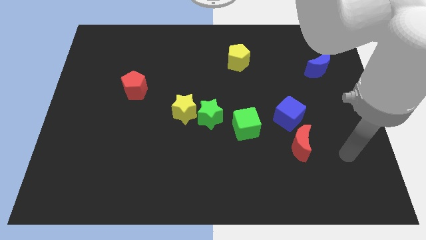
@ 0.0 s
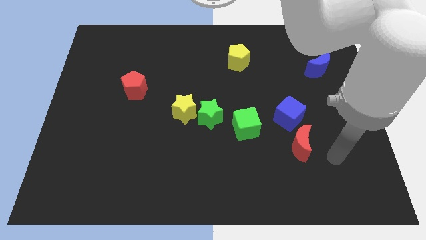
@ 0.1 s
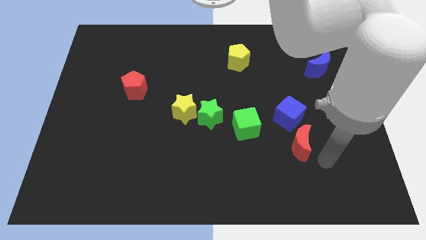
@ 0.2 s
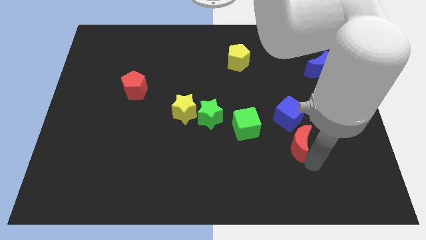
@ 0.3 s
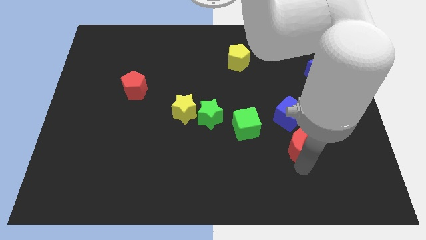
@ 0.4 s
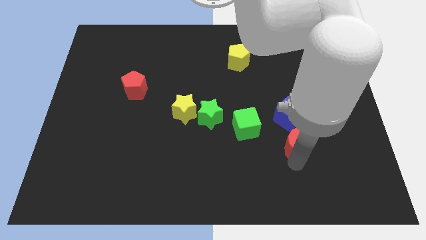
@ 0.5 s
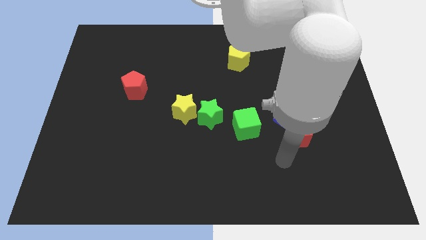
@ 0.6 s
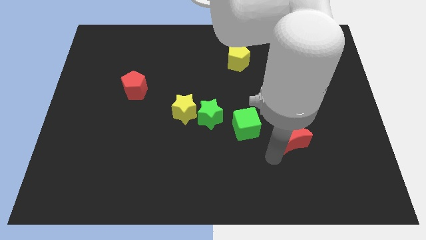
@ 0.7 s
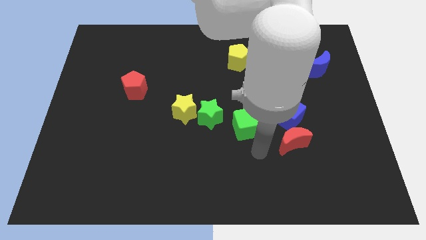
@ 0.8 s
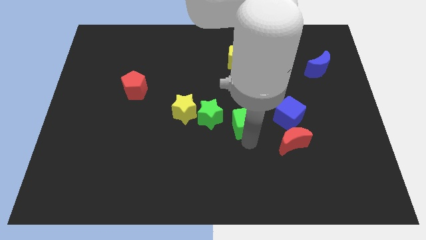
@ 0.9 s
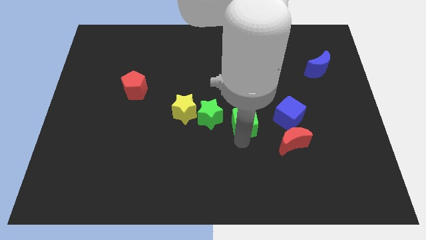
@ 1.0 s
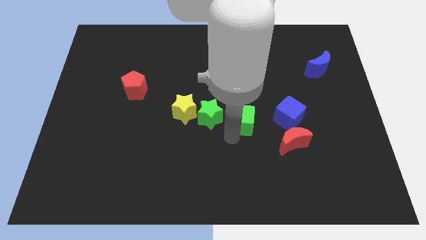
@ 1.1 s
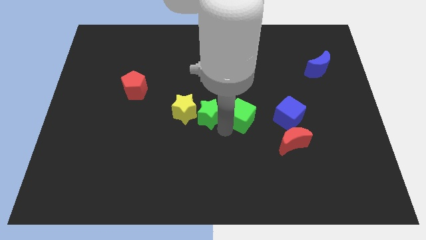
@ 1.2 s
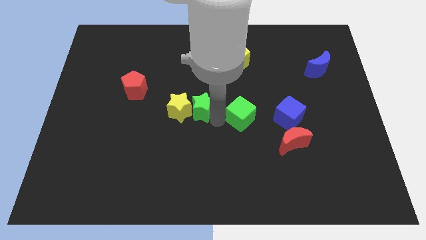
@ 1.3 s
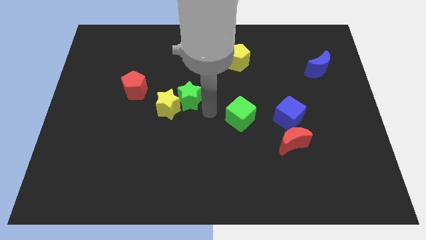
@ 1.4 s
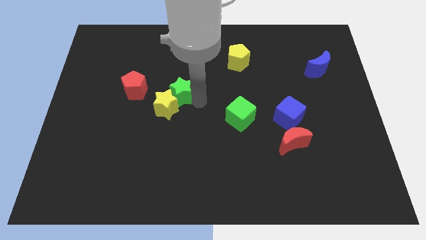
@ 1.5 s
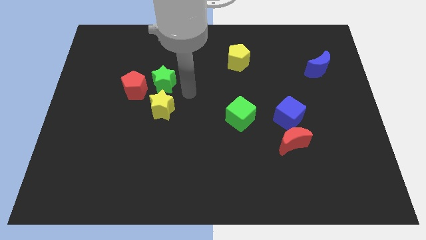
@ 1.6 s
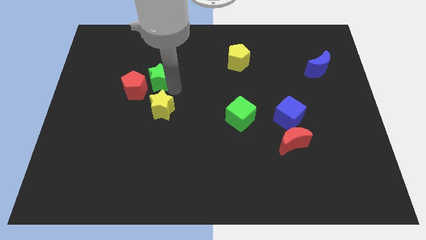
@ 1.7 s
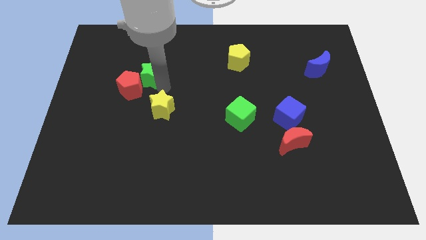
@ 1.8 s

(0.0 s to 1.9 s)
separate the yellow star from the green star

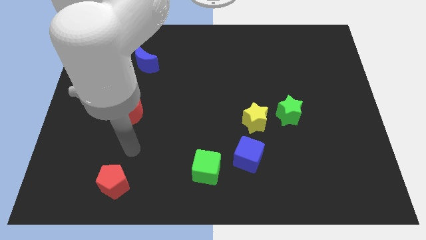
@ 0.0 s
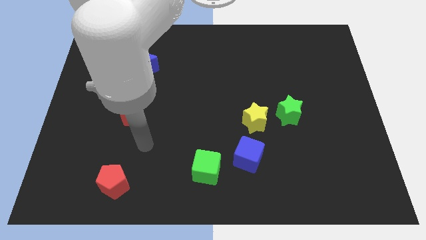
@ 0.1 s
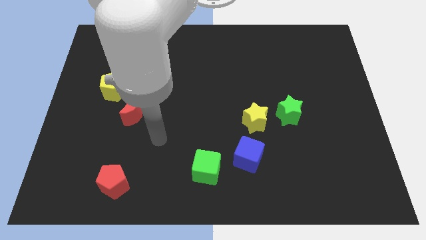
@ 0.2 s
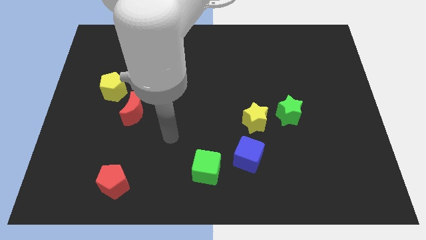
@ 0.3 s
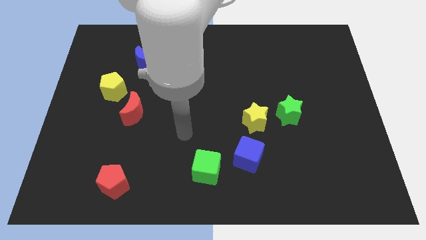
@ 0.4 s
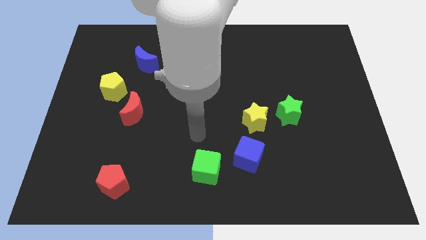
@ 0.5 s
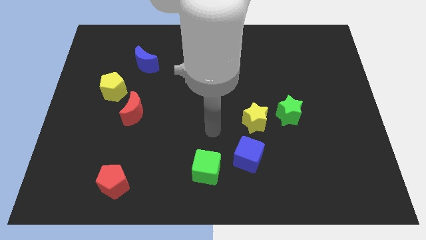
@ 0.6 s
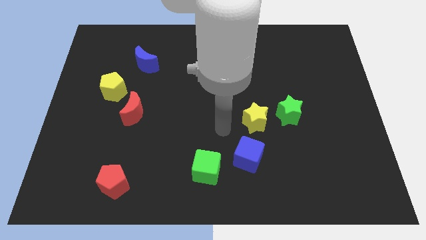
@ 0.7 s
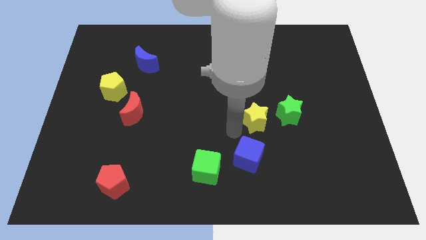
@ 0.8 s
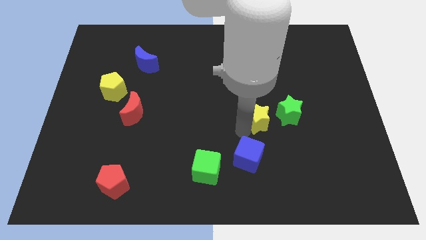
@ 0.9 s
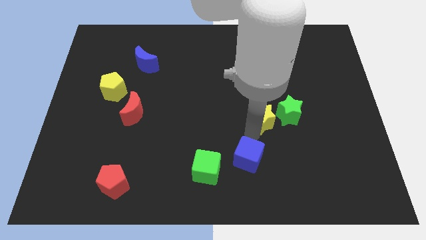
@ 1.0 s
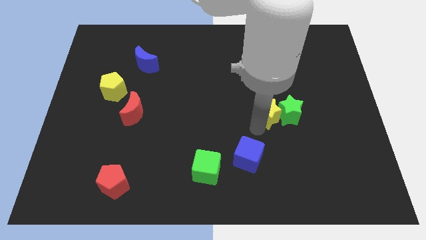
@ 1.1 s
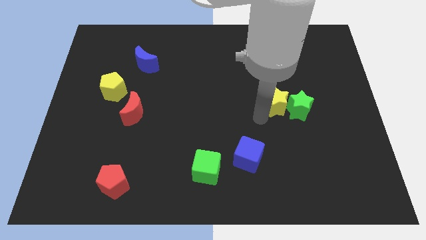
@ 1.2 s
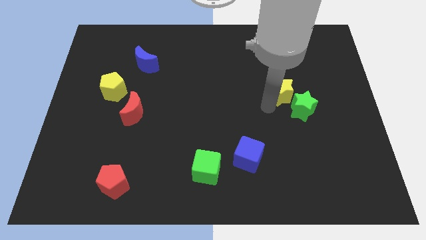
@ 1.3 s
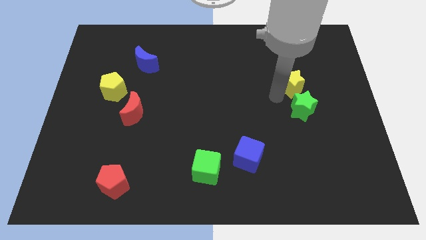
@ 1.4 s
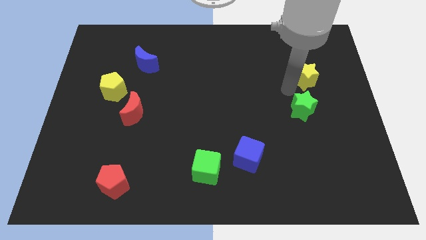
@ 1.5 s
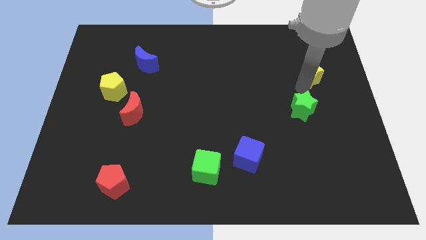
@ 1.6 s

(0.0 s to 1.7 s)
separate the green star from the yellow star

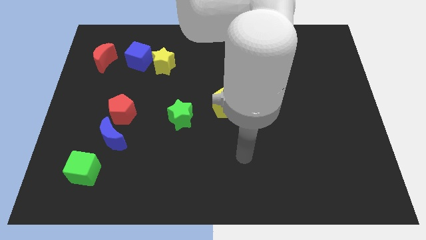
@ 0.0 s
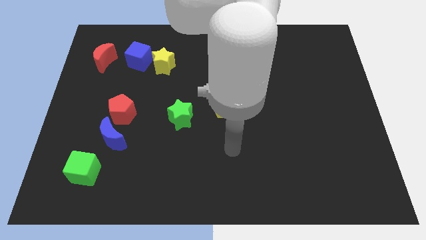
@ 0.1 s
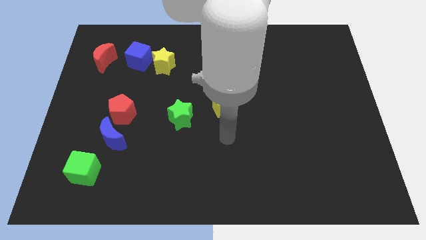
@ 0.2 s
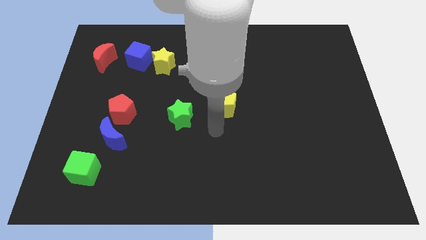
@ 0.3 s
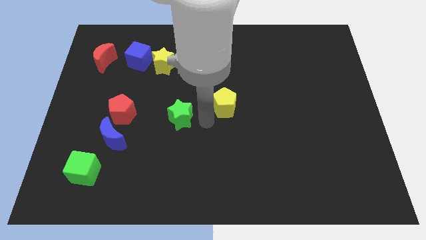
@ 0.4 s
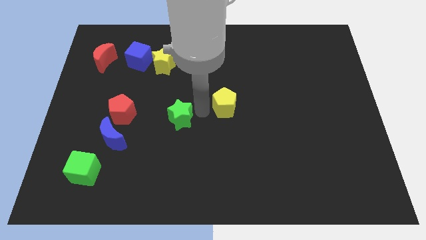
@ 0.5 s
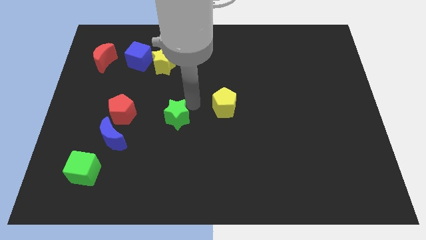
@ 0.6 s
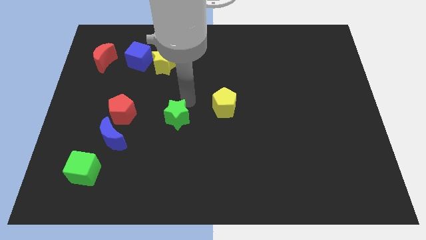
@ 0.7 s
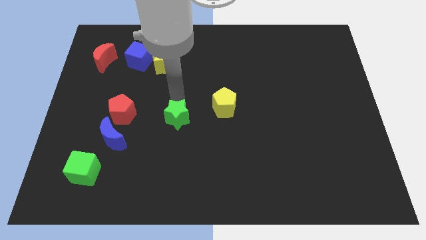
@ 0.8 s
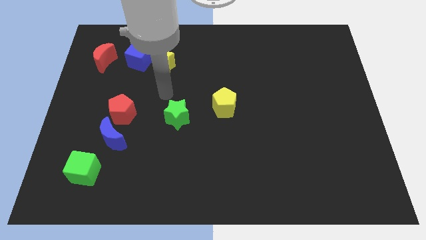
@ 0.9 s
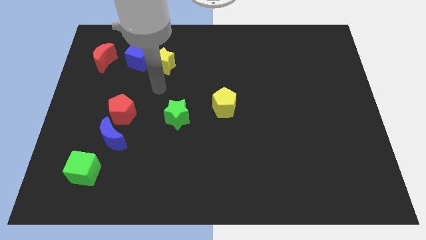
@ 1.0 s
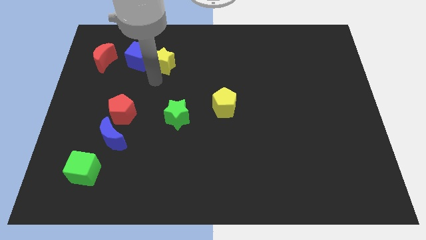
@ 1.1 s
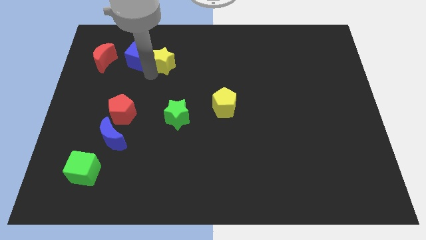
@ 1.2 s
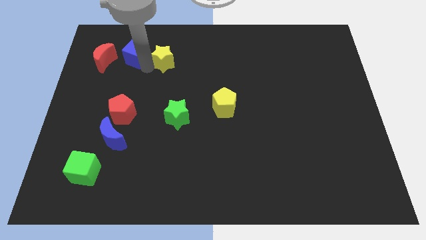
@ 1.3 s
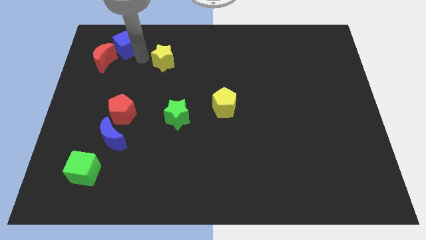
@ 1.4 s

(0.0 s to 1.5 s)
move the yellow star away from the blue cube

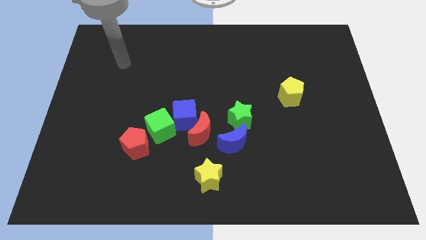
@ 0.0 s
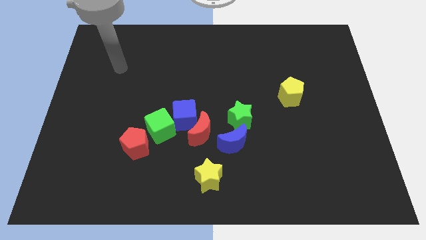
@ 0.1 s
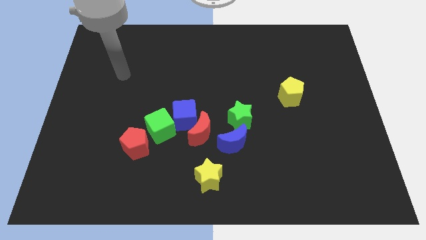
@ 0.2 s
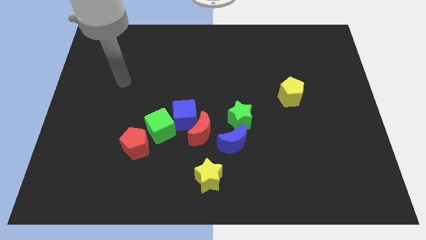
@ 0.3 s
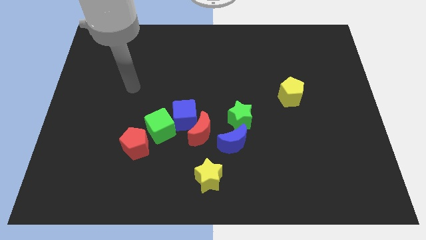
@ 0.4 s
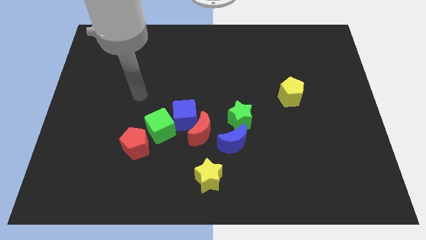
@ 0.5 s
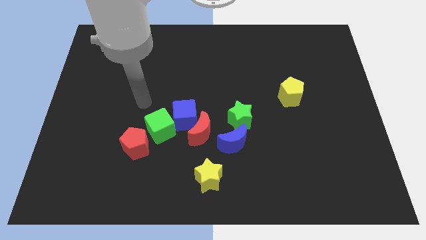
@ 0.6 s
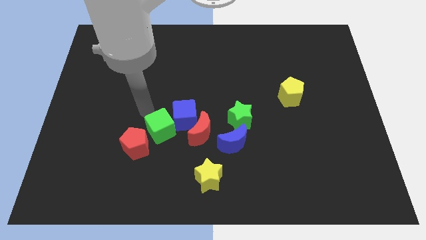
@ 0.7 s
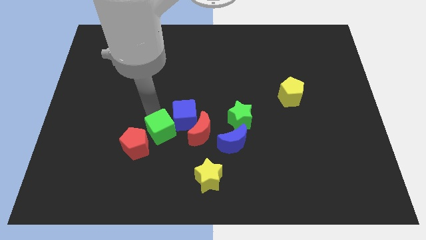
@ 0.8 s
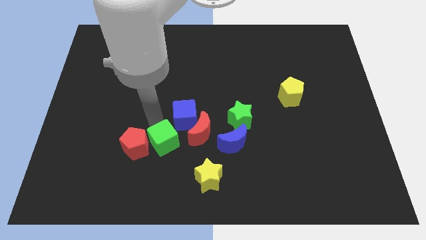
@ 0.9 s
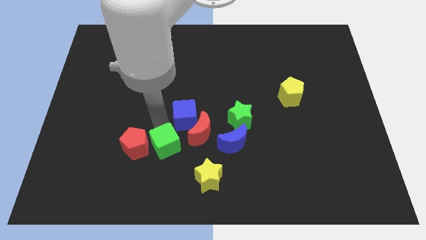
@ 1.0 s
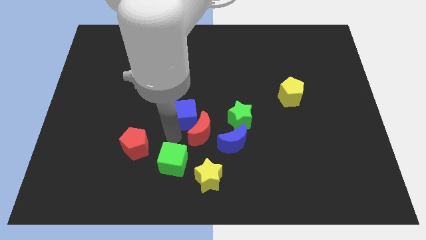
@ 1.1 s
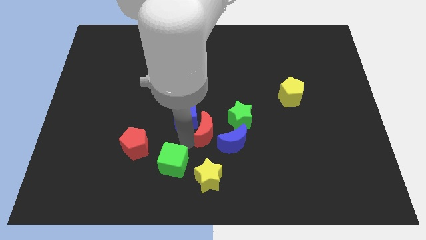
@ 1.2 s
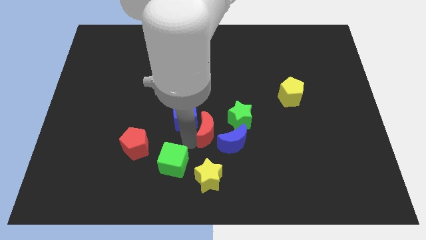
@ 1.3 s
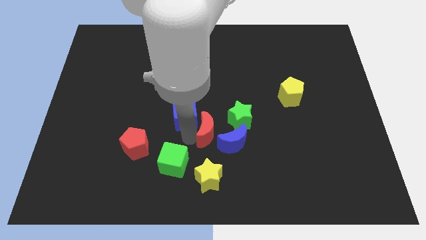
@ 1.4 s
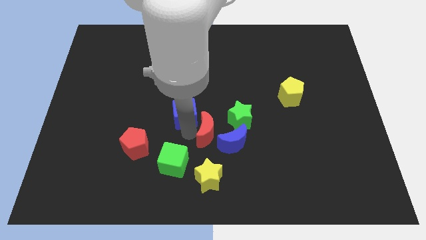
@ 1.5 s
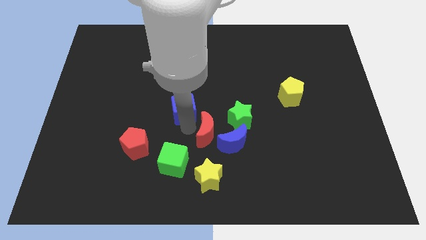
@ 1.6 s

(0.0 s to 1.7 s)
separate the blue cube from the red moon and green cube

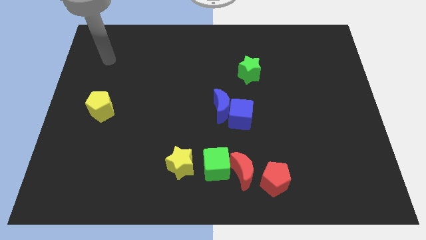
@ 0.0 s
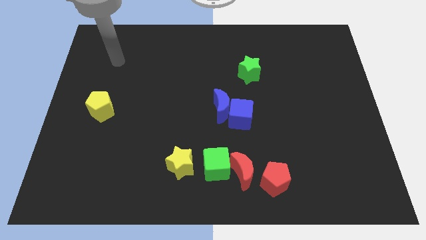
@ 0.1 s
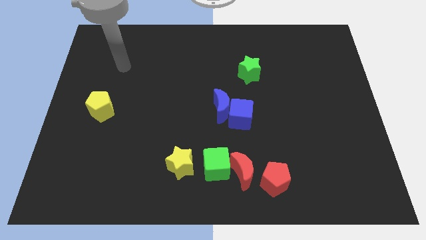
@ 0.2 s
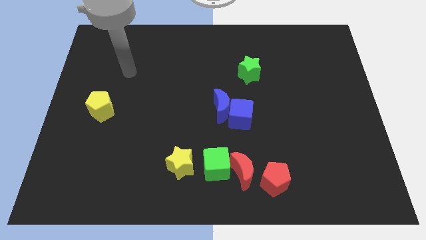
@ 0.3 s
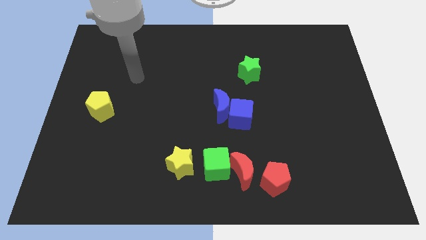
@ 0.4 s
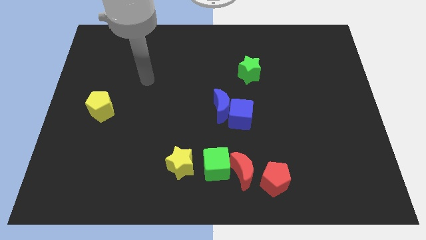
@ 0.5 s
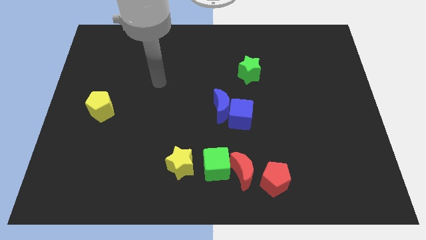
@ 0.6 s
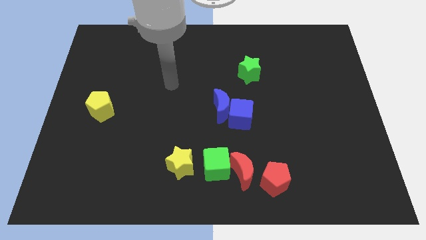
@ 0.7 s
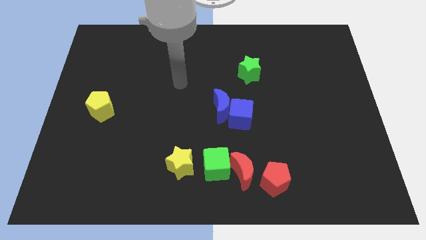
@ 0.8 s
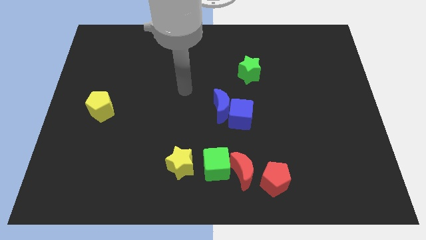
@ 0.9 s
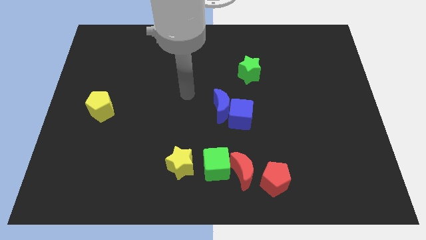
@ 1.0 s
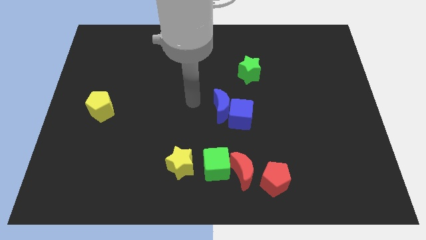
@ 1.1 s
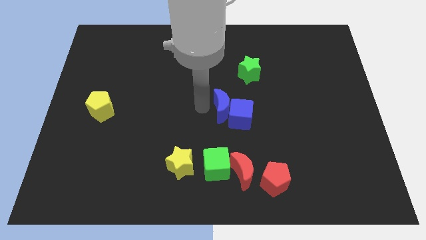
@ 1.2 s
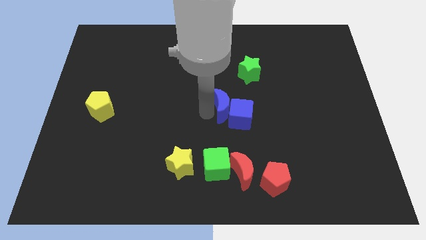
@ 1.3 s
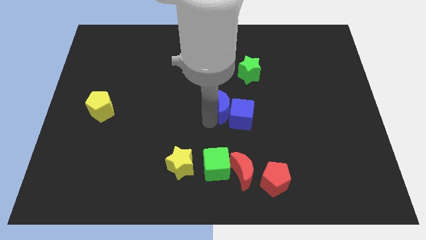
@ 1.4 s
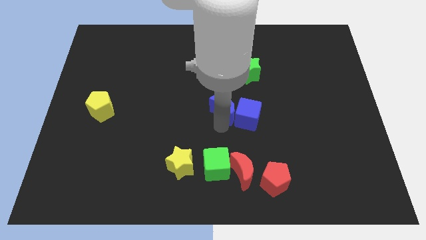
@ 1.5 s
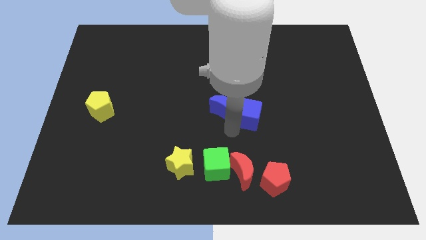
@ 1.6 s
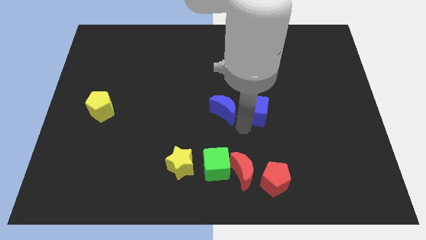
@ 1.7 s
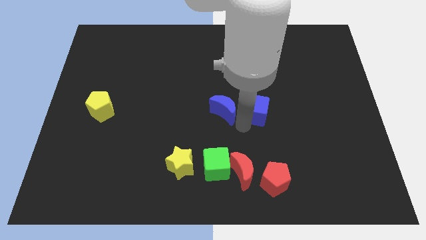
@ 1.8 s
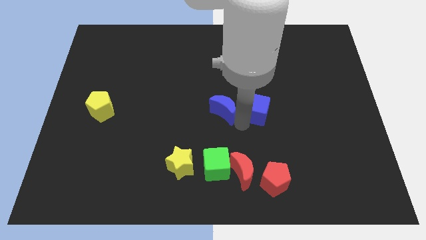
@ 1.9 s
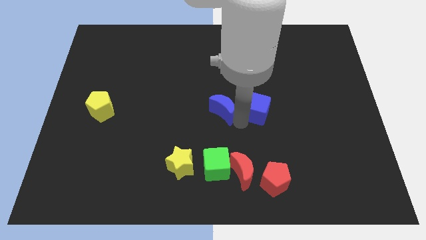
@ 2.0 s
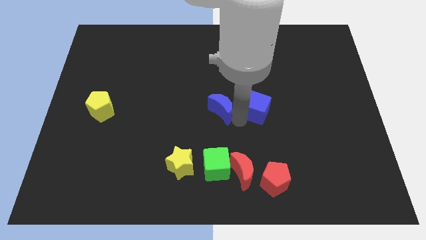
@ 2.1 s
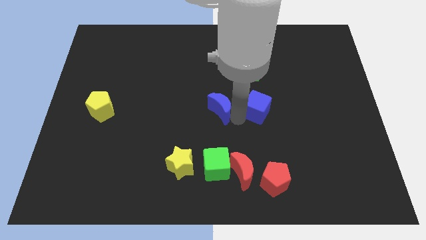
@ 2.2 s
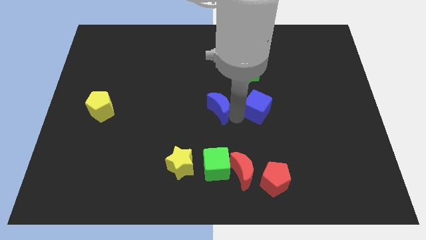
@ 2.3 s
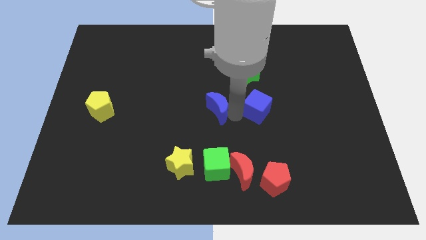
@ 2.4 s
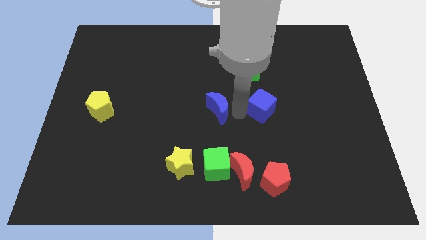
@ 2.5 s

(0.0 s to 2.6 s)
separate the blue moon from the blue cube
